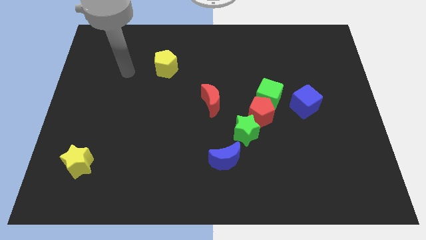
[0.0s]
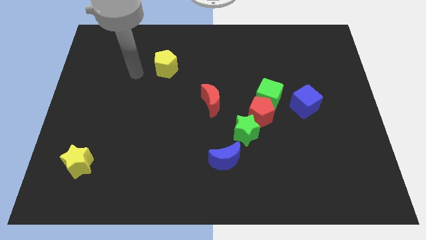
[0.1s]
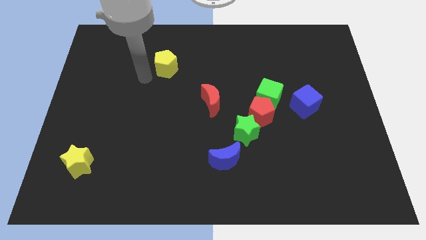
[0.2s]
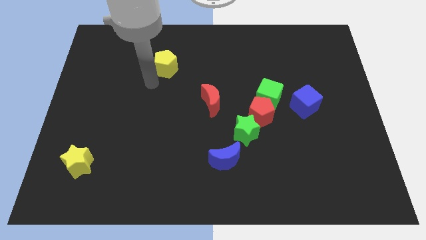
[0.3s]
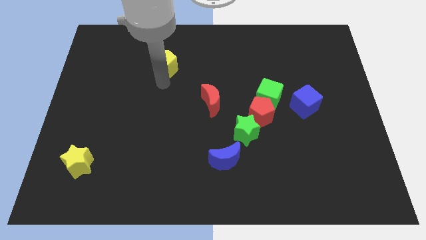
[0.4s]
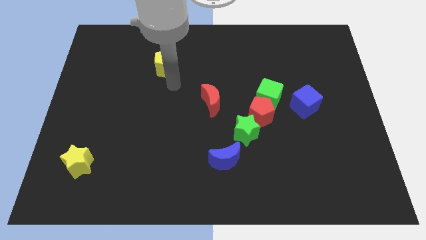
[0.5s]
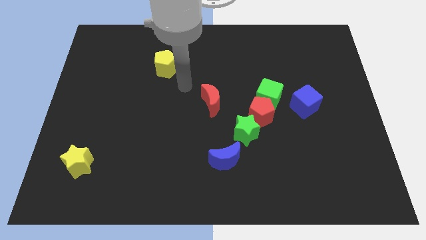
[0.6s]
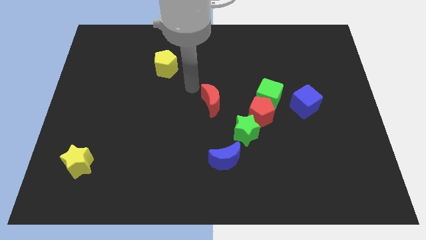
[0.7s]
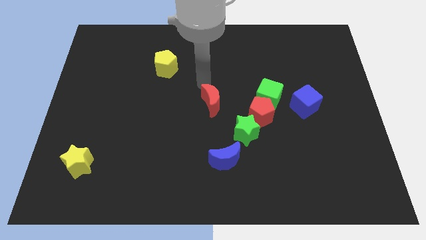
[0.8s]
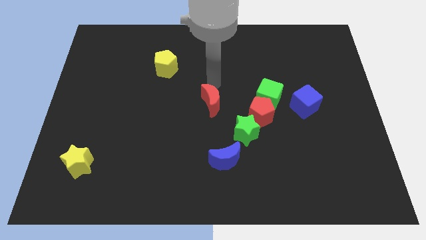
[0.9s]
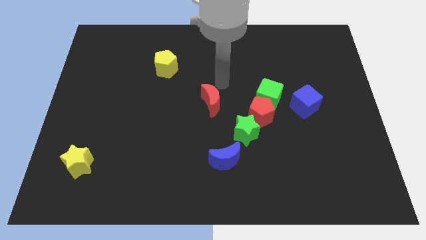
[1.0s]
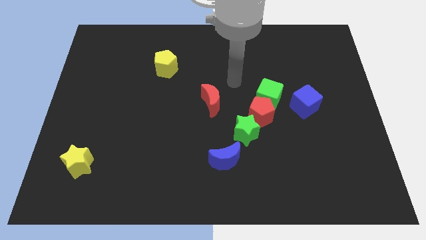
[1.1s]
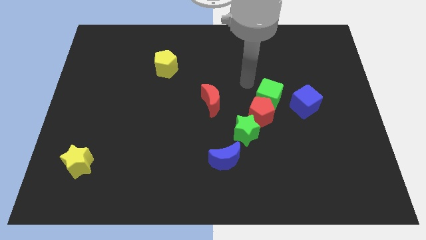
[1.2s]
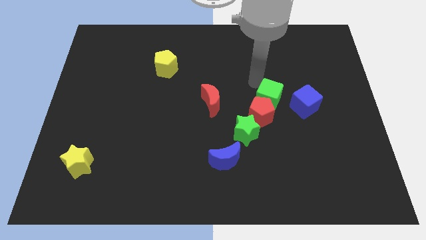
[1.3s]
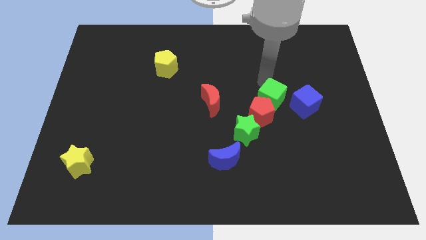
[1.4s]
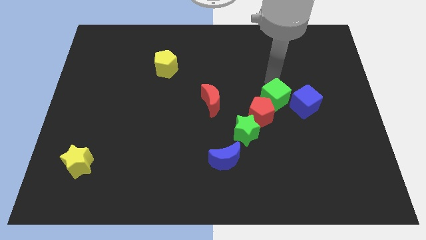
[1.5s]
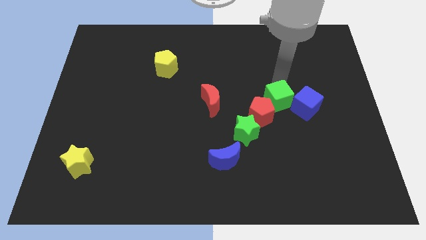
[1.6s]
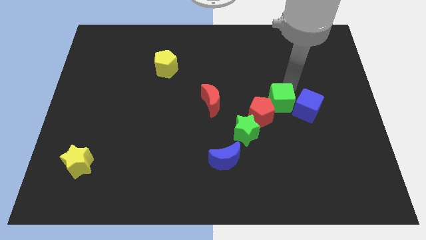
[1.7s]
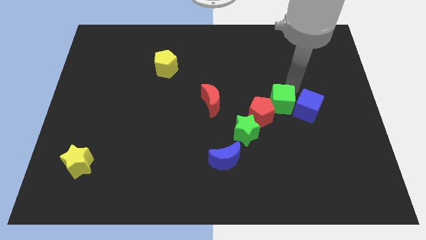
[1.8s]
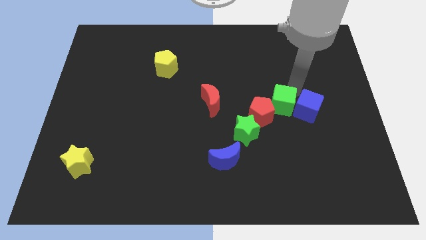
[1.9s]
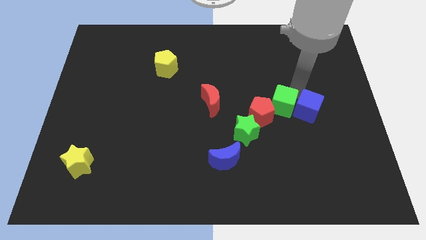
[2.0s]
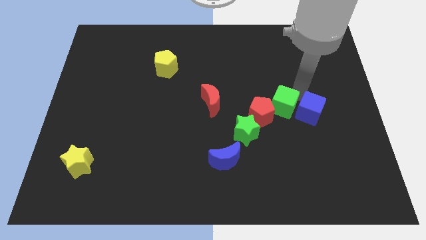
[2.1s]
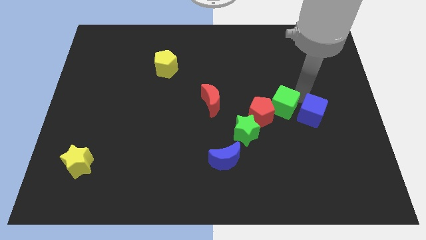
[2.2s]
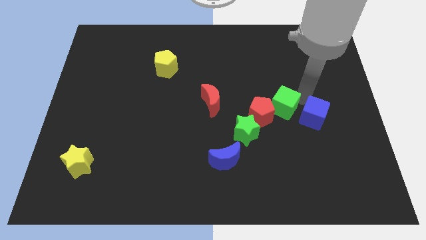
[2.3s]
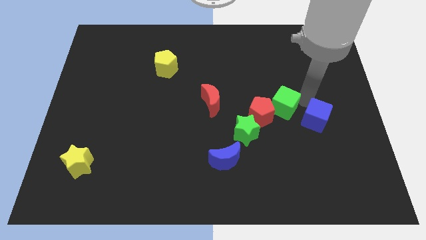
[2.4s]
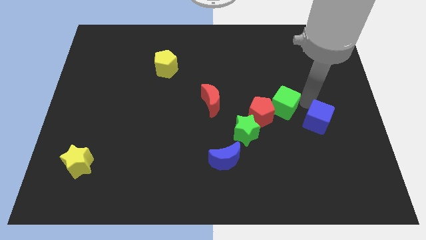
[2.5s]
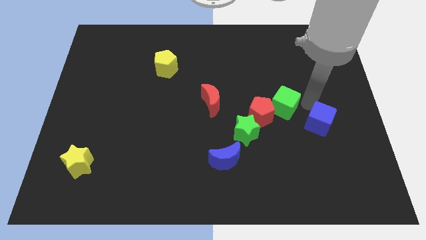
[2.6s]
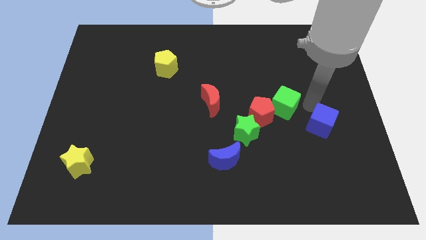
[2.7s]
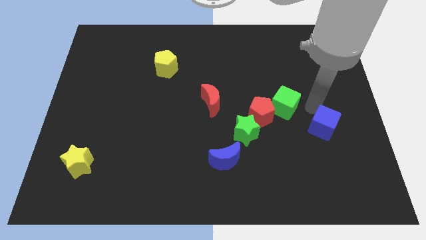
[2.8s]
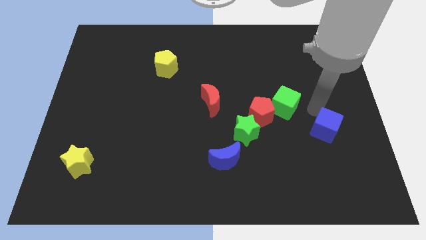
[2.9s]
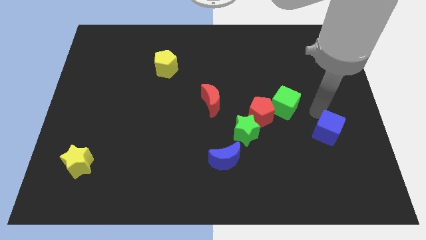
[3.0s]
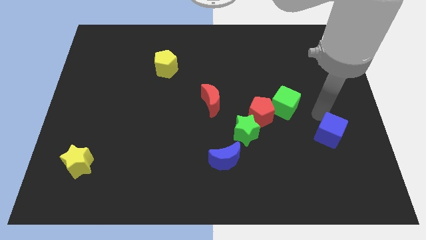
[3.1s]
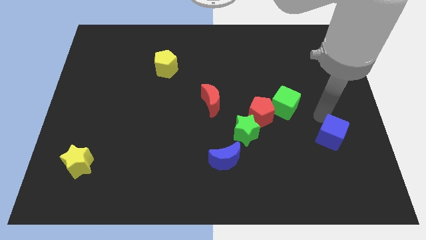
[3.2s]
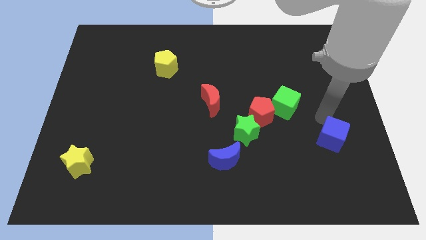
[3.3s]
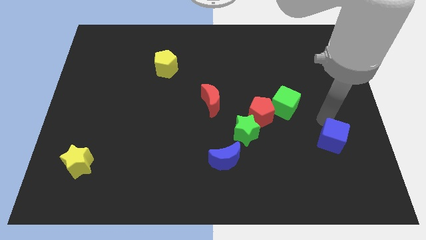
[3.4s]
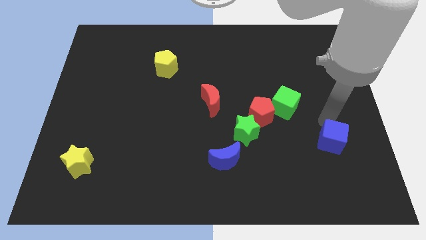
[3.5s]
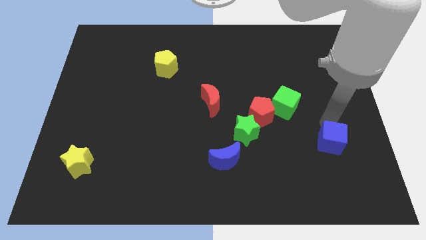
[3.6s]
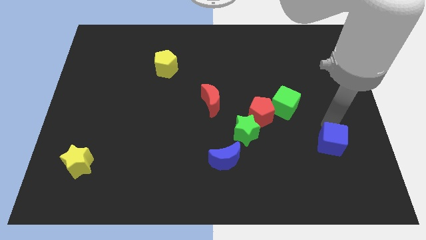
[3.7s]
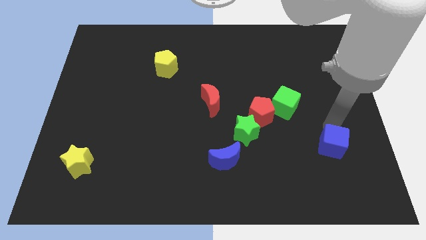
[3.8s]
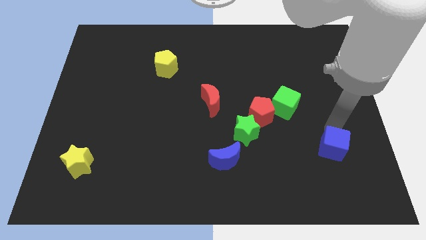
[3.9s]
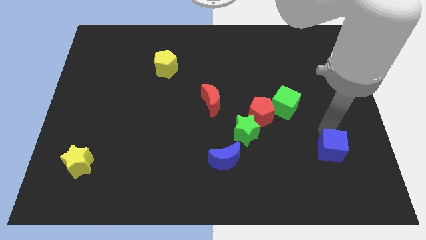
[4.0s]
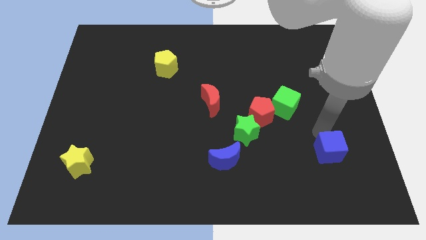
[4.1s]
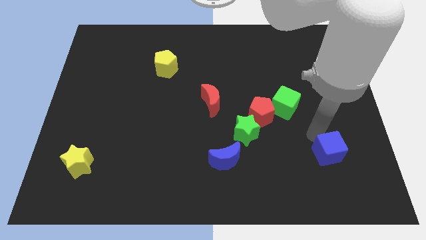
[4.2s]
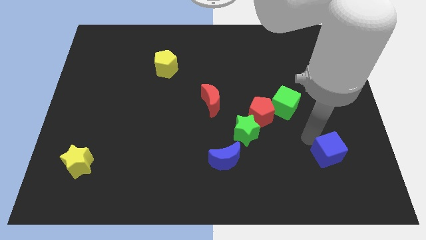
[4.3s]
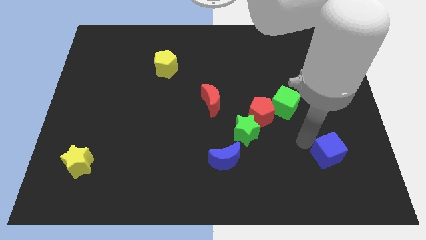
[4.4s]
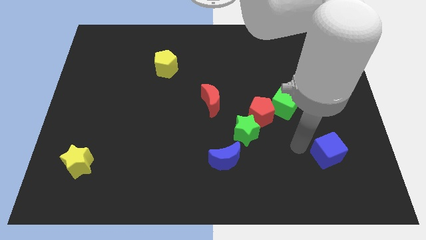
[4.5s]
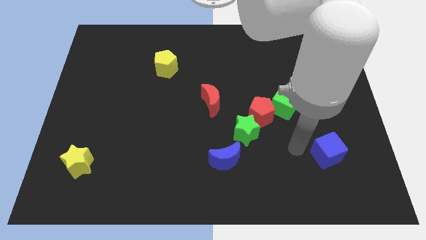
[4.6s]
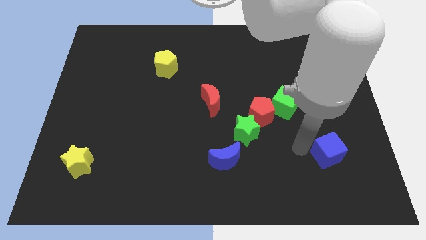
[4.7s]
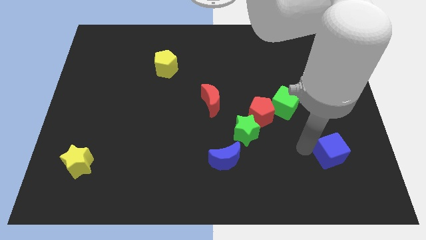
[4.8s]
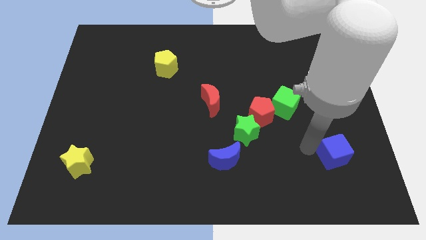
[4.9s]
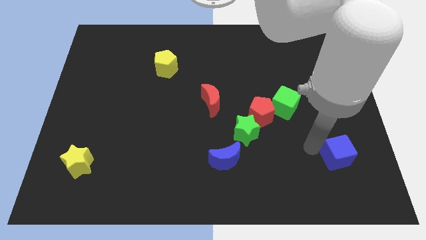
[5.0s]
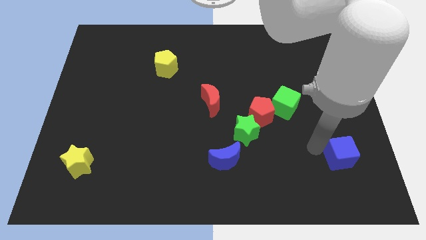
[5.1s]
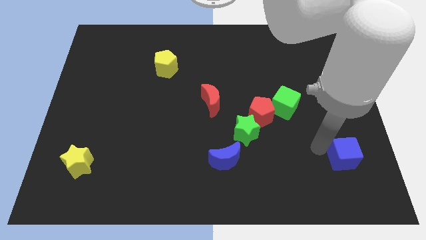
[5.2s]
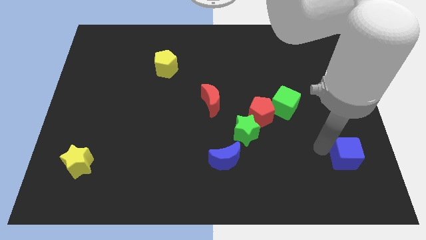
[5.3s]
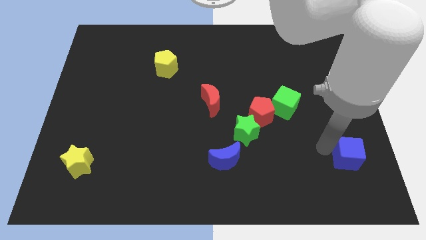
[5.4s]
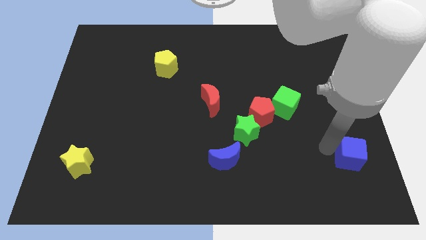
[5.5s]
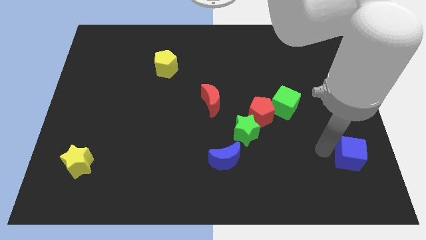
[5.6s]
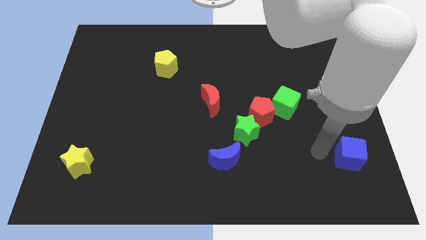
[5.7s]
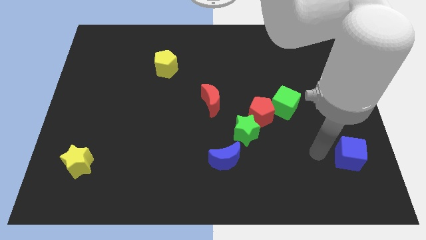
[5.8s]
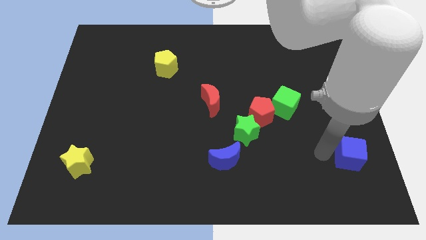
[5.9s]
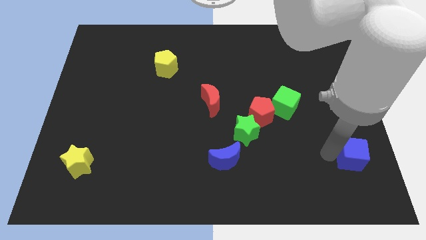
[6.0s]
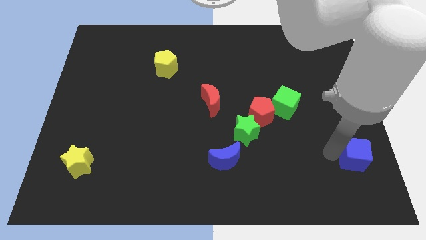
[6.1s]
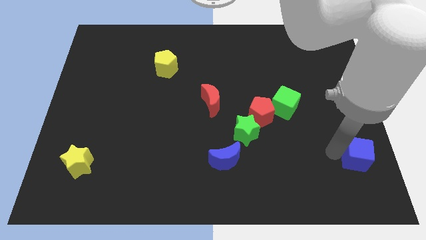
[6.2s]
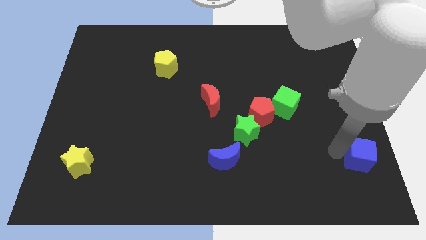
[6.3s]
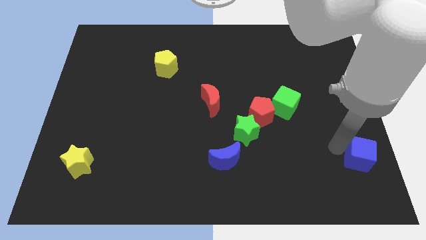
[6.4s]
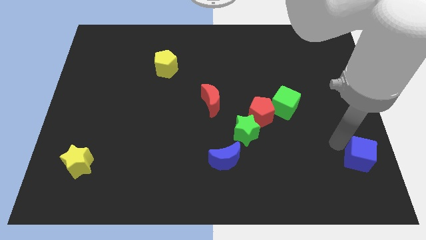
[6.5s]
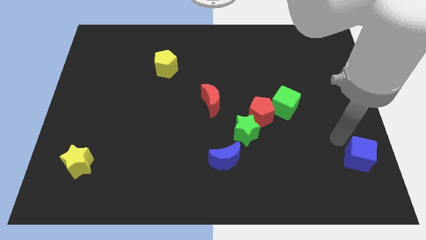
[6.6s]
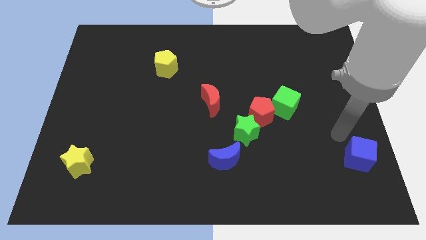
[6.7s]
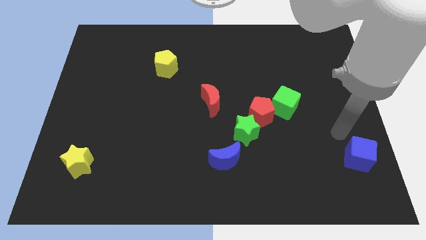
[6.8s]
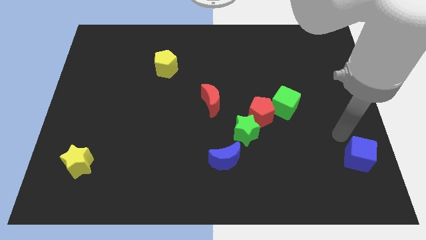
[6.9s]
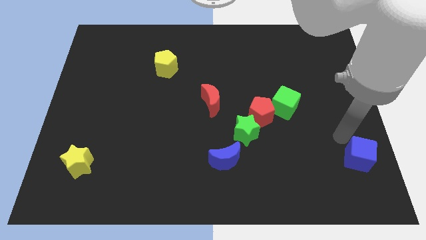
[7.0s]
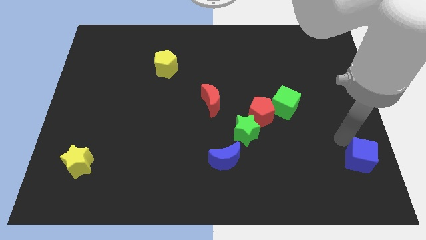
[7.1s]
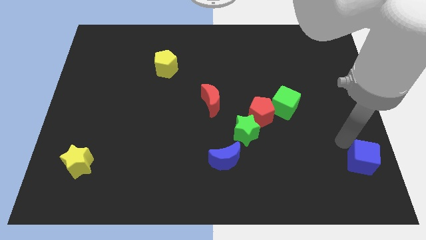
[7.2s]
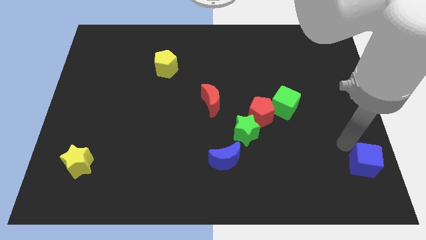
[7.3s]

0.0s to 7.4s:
push the blue cube to the bottom right of the board
